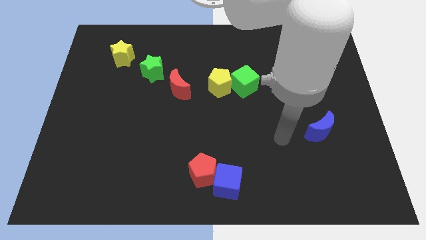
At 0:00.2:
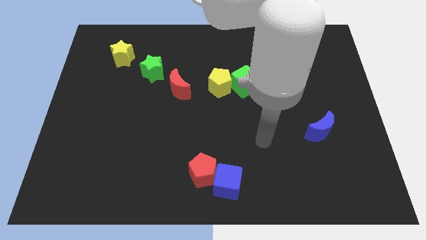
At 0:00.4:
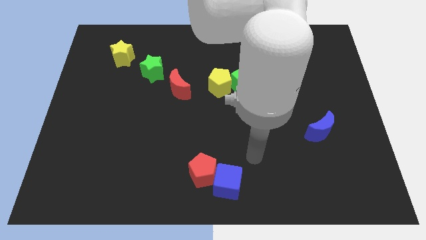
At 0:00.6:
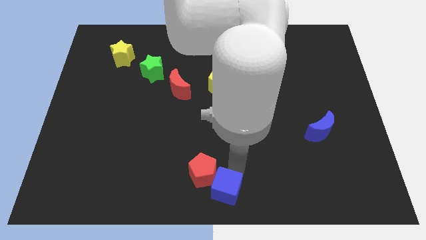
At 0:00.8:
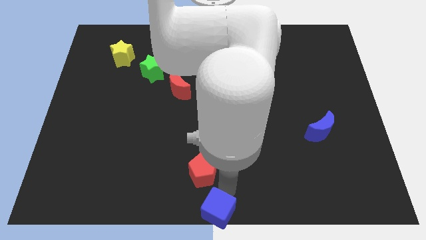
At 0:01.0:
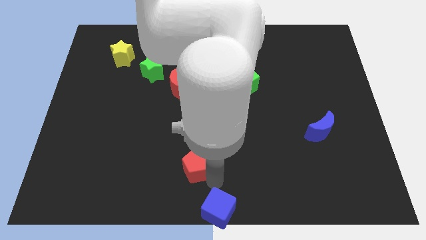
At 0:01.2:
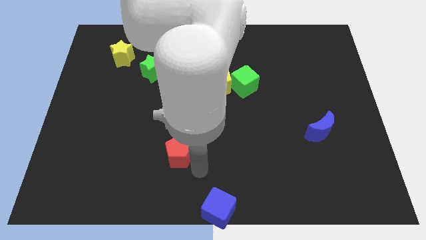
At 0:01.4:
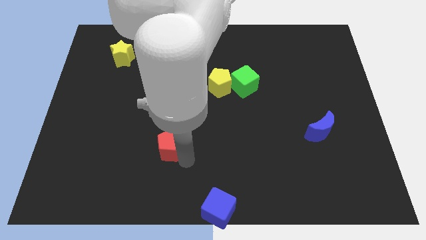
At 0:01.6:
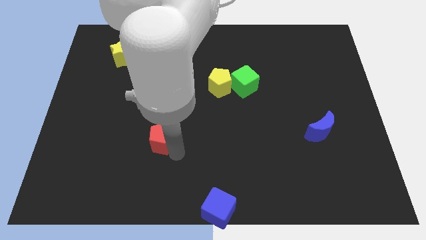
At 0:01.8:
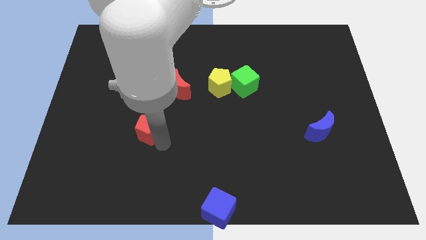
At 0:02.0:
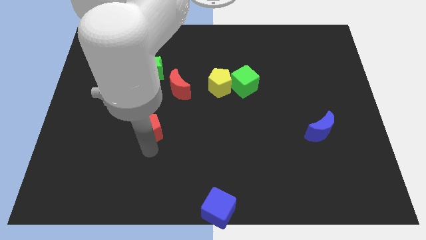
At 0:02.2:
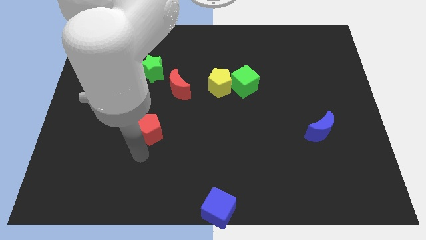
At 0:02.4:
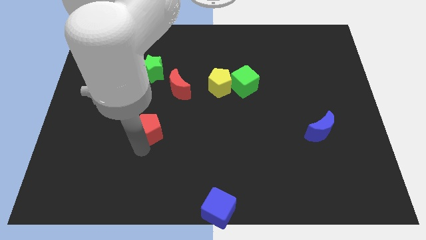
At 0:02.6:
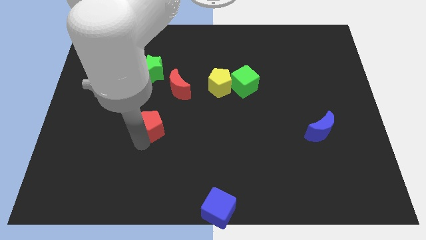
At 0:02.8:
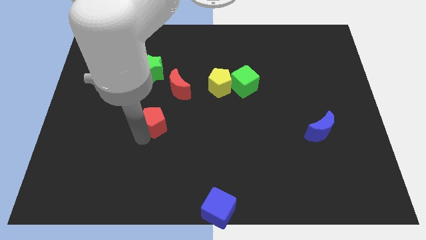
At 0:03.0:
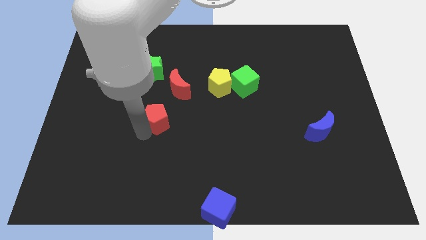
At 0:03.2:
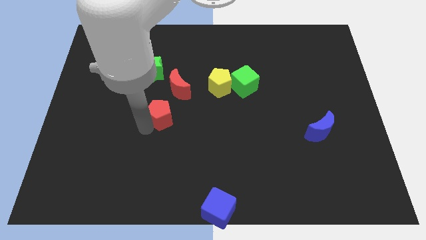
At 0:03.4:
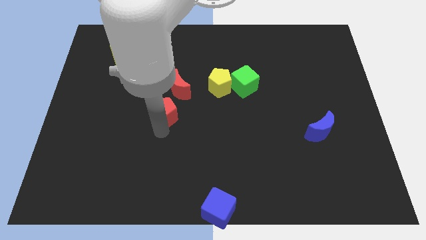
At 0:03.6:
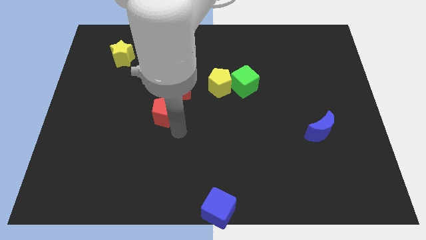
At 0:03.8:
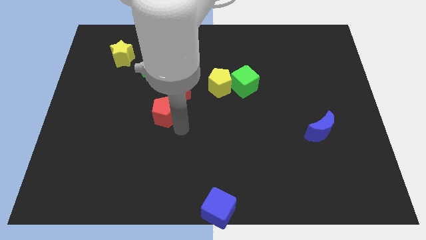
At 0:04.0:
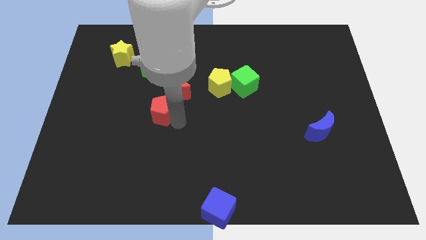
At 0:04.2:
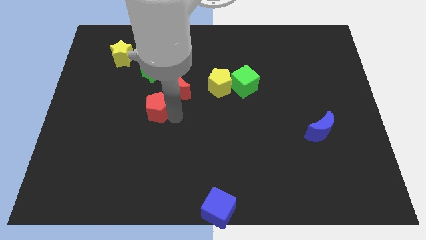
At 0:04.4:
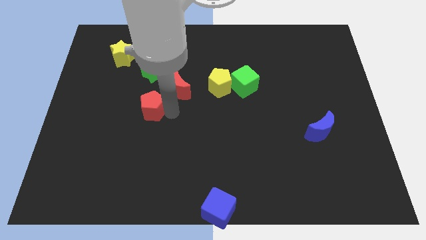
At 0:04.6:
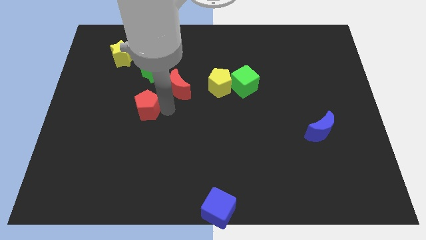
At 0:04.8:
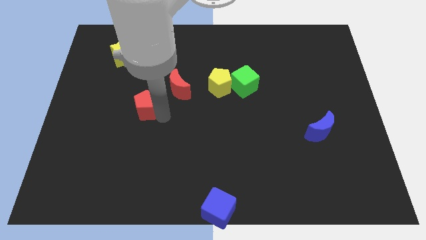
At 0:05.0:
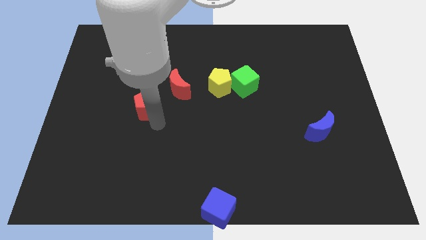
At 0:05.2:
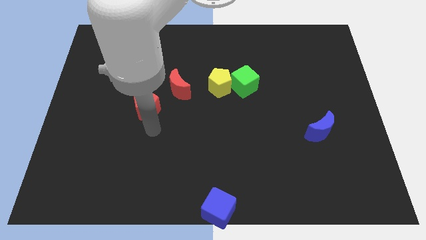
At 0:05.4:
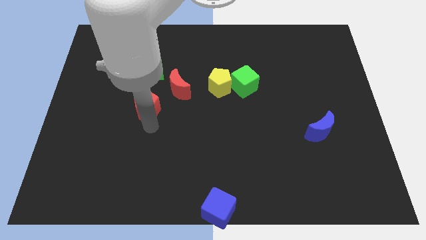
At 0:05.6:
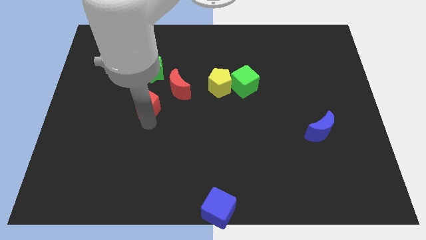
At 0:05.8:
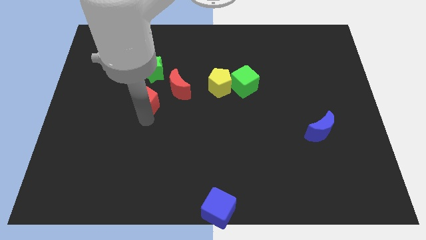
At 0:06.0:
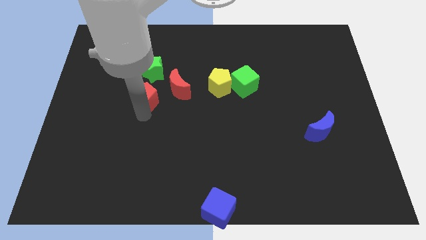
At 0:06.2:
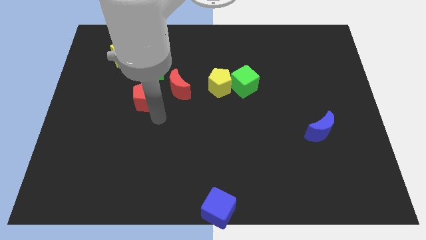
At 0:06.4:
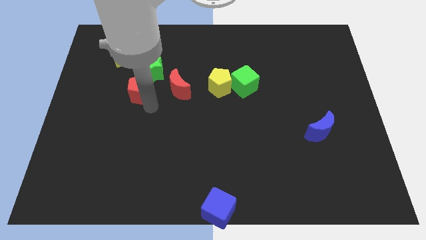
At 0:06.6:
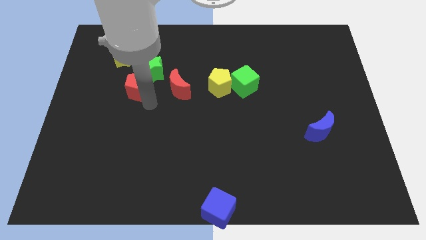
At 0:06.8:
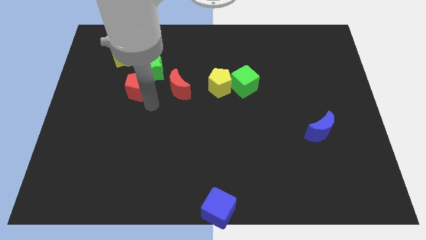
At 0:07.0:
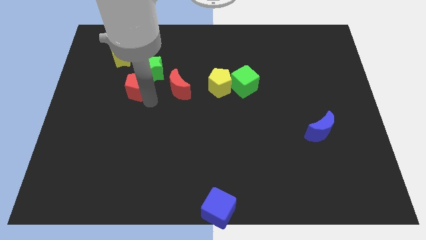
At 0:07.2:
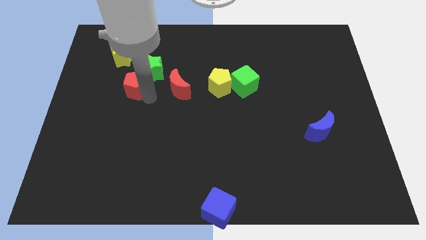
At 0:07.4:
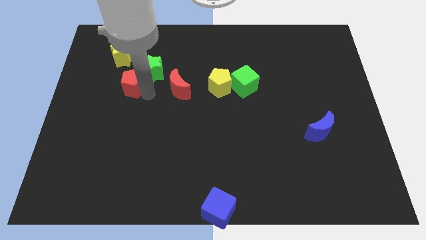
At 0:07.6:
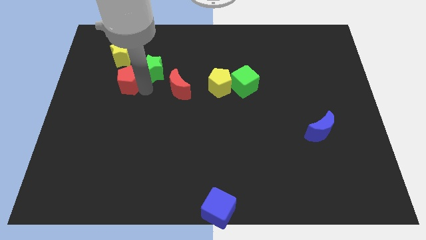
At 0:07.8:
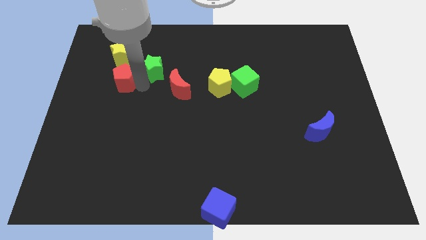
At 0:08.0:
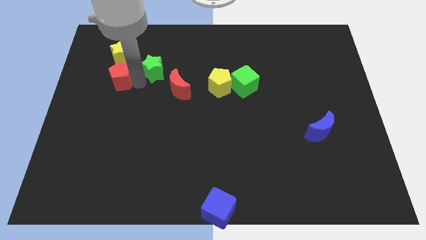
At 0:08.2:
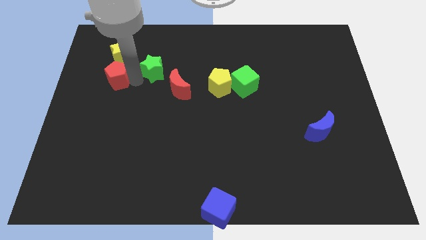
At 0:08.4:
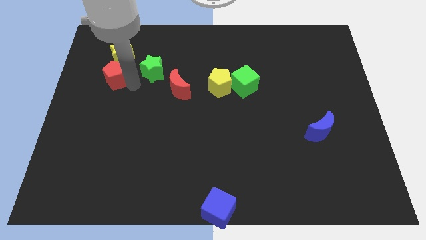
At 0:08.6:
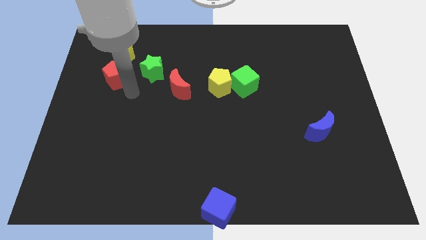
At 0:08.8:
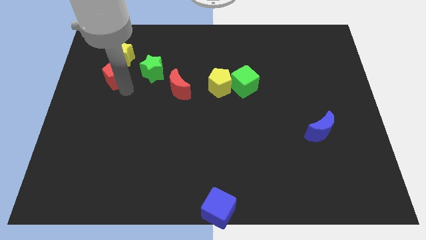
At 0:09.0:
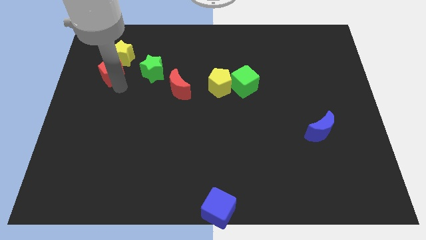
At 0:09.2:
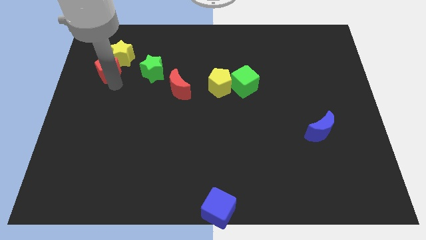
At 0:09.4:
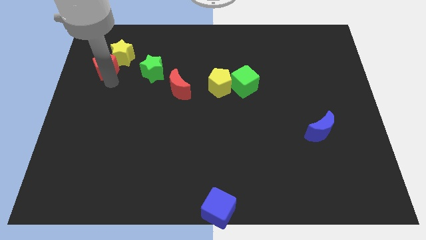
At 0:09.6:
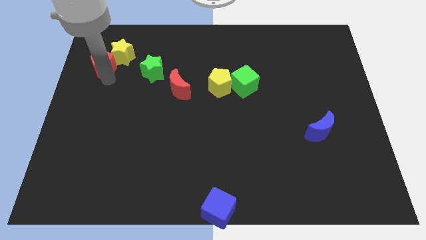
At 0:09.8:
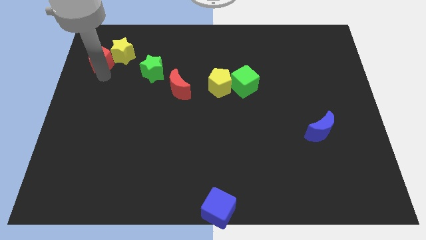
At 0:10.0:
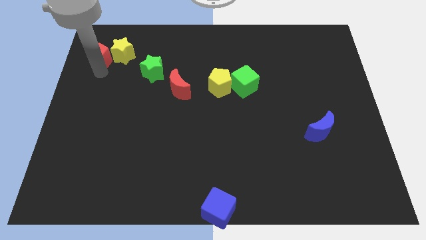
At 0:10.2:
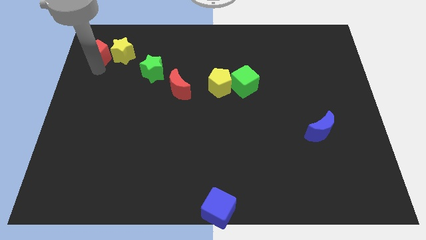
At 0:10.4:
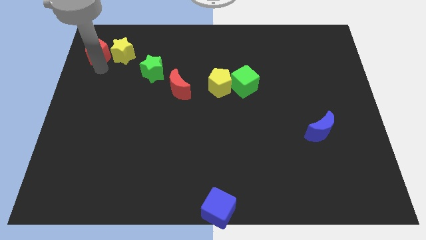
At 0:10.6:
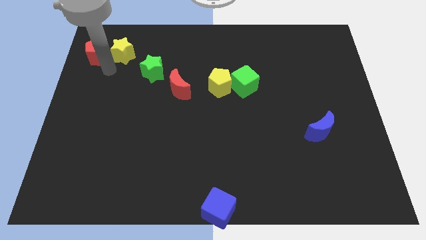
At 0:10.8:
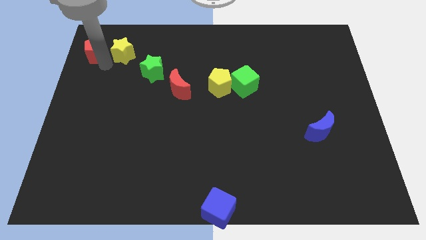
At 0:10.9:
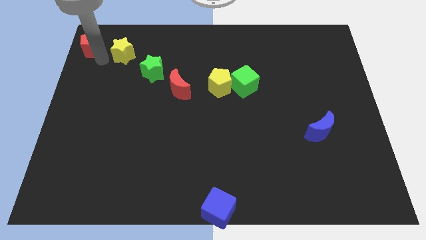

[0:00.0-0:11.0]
slide the red pentagon to the upper left corner

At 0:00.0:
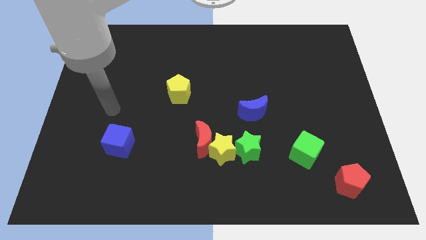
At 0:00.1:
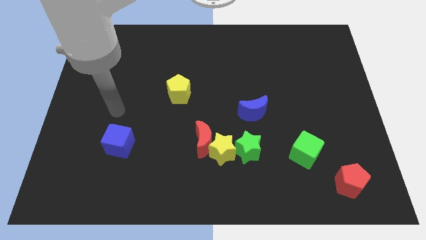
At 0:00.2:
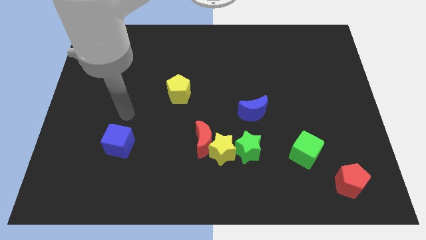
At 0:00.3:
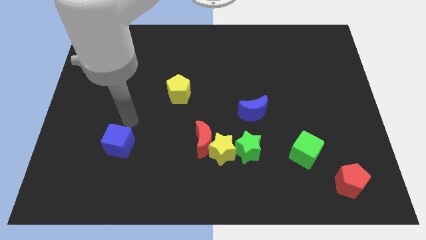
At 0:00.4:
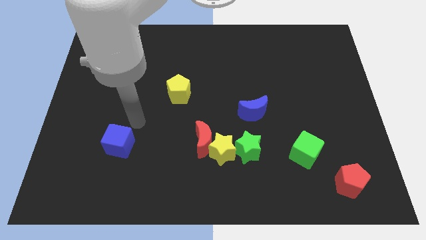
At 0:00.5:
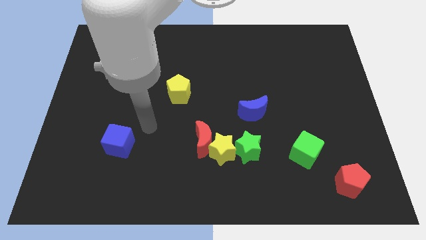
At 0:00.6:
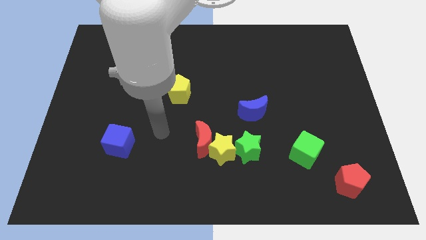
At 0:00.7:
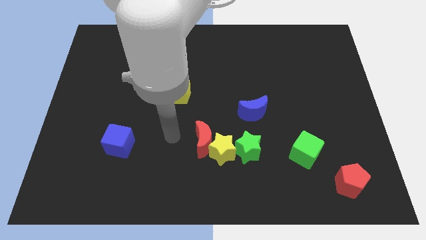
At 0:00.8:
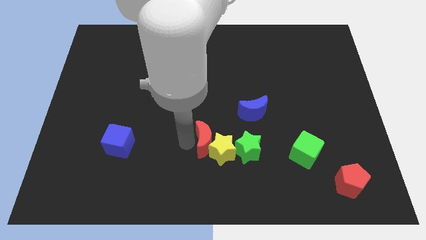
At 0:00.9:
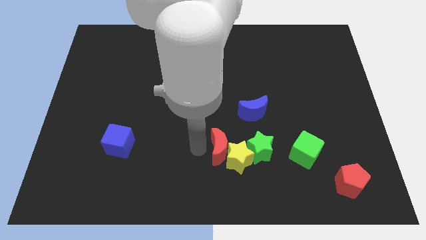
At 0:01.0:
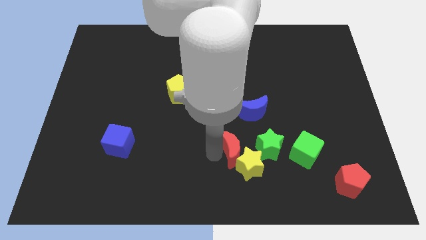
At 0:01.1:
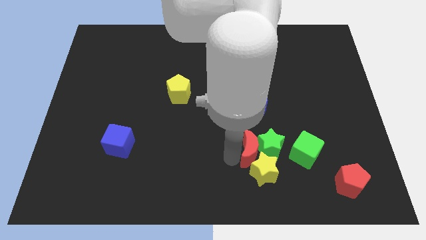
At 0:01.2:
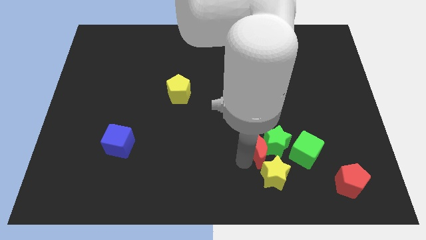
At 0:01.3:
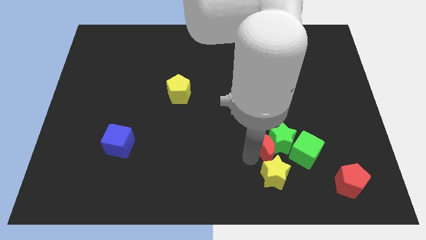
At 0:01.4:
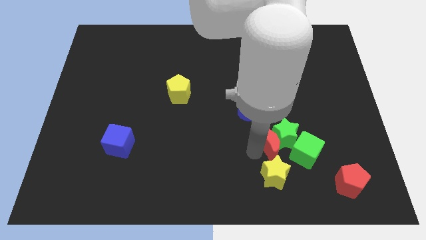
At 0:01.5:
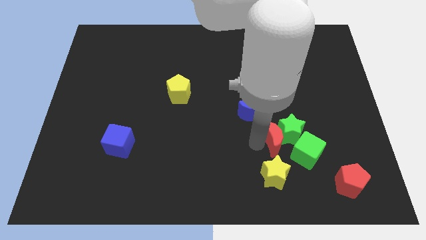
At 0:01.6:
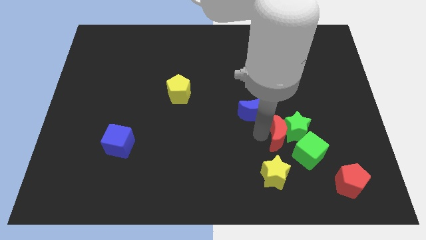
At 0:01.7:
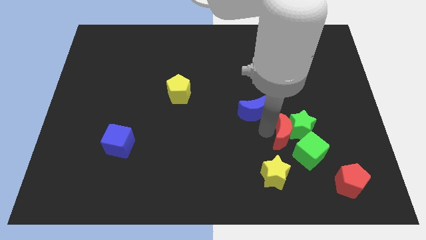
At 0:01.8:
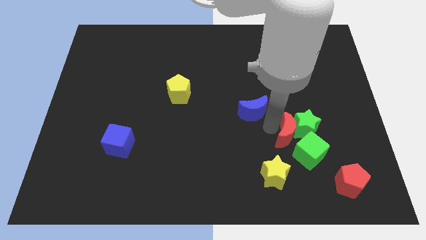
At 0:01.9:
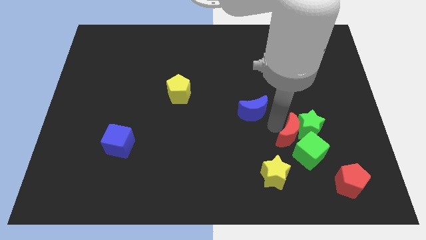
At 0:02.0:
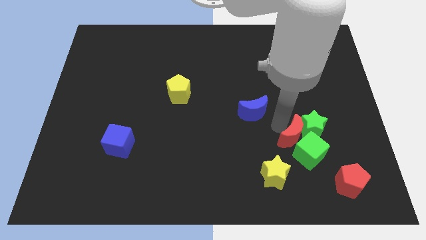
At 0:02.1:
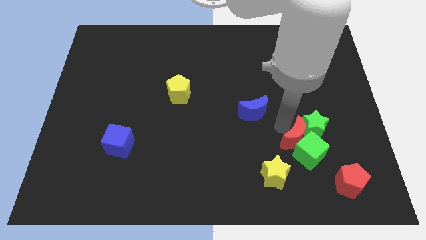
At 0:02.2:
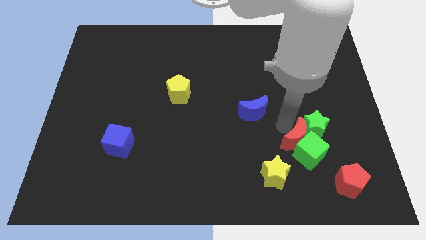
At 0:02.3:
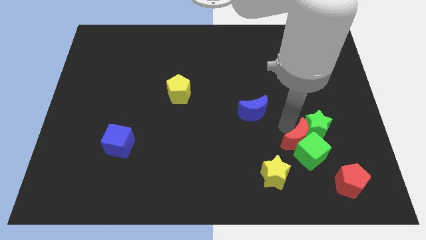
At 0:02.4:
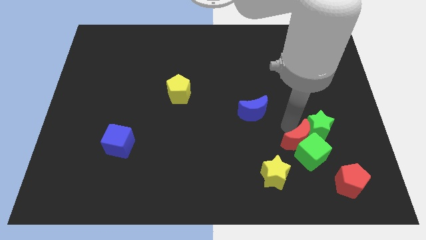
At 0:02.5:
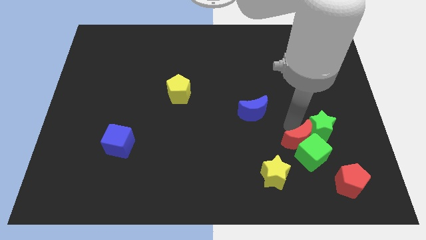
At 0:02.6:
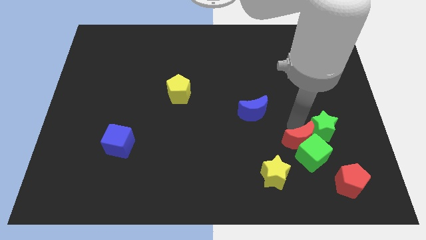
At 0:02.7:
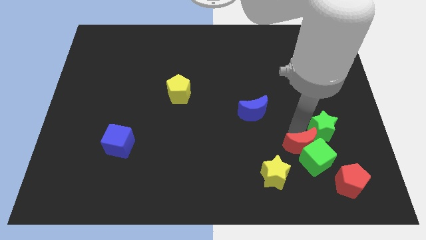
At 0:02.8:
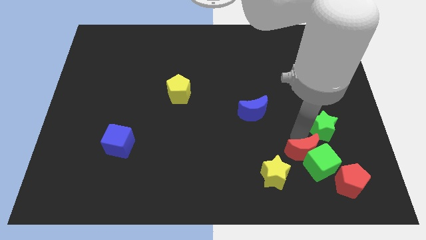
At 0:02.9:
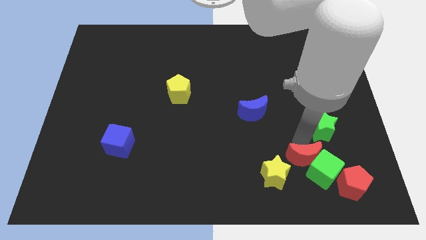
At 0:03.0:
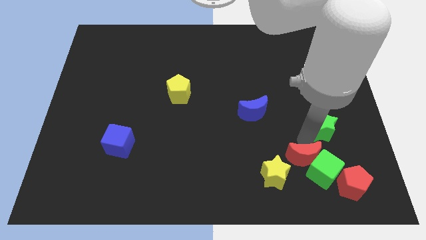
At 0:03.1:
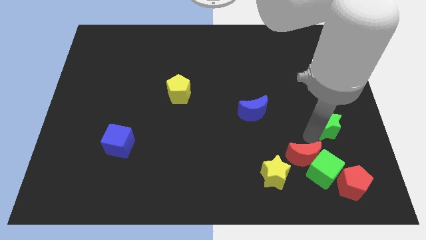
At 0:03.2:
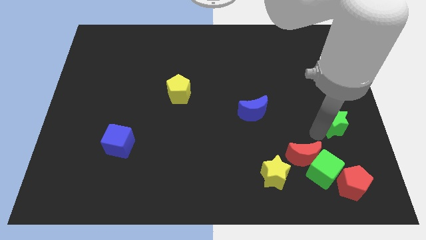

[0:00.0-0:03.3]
push the green star to the right side of the board
